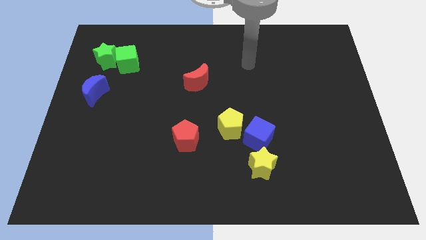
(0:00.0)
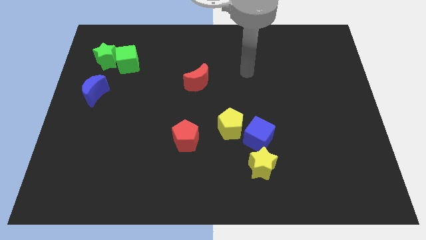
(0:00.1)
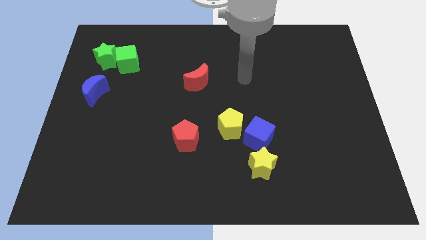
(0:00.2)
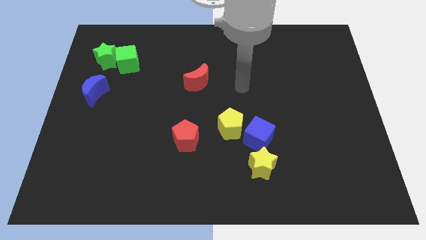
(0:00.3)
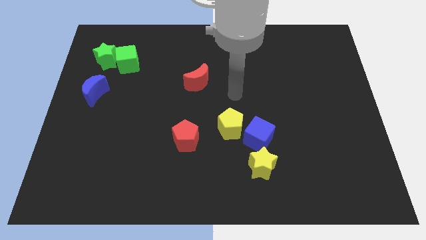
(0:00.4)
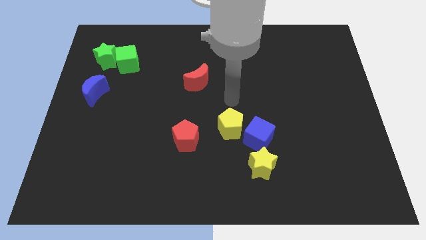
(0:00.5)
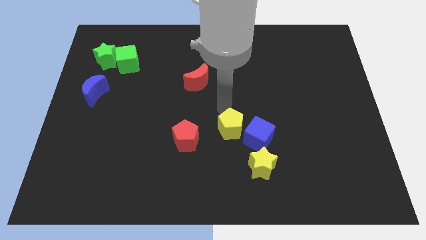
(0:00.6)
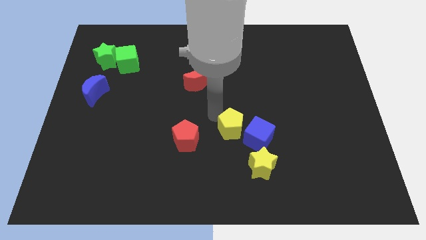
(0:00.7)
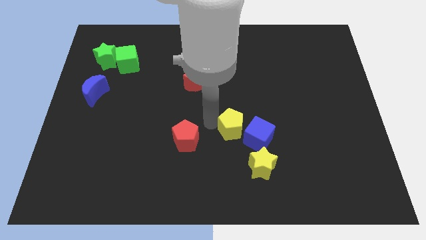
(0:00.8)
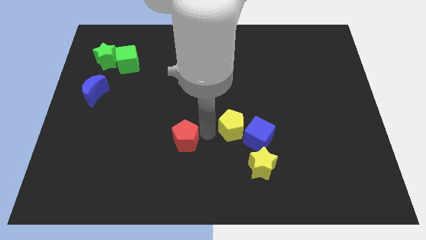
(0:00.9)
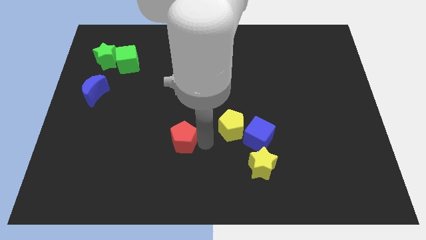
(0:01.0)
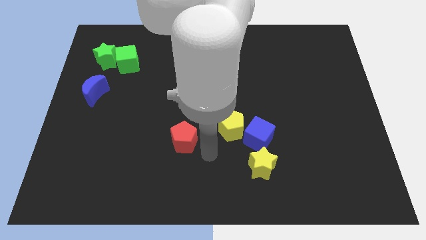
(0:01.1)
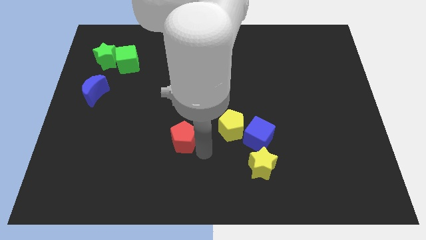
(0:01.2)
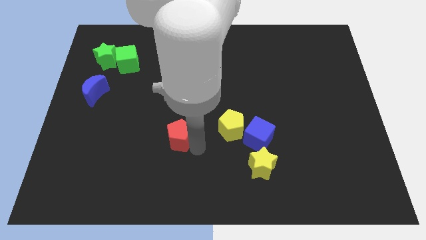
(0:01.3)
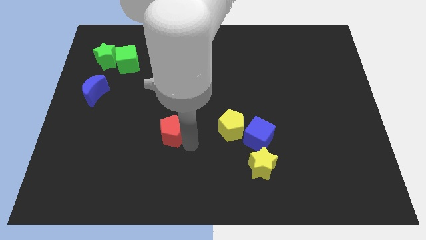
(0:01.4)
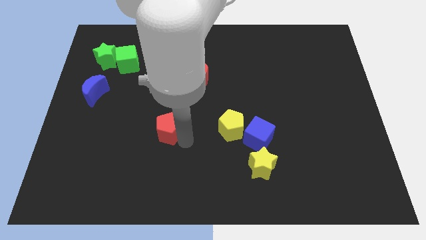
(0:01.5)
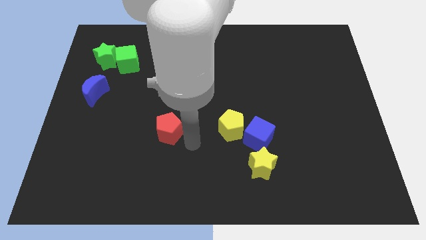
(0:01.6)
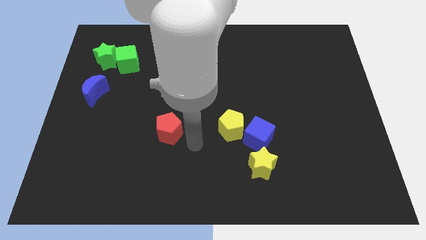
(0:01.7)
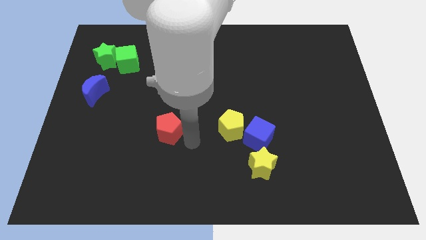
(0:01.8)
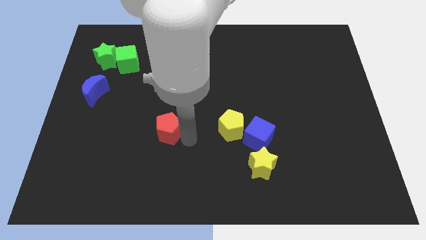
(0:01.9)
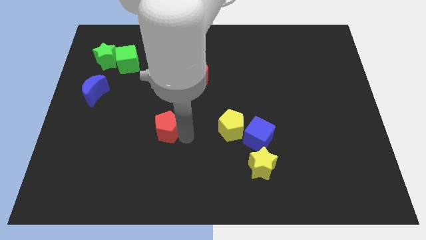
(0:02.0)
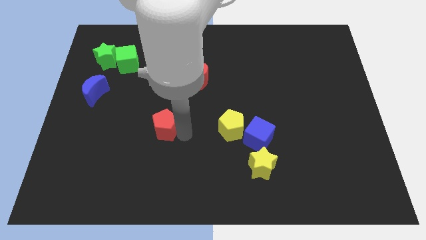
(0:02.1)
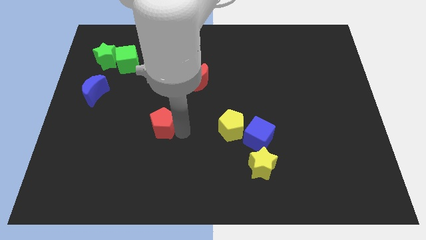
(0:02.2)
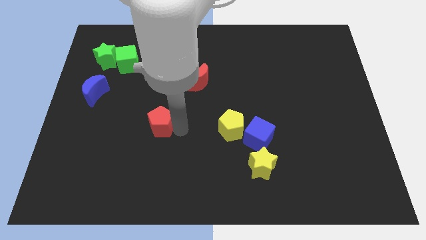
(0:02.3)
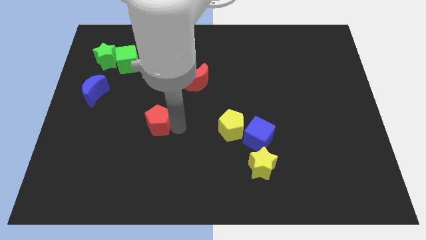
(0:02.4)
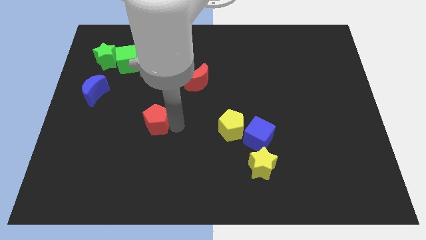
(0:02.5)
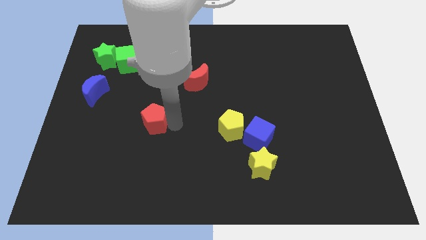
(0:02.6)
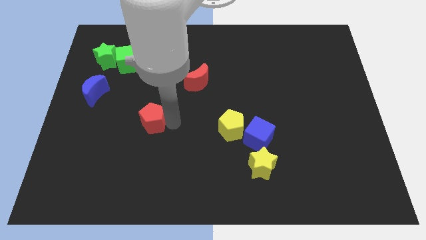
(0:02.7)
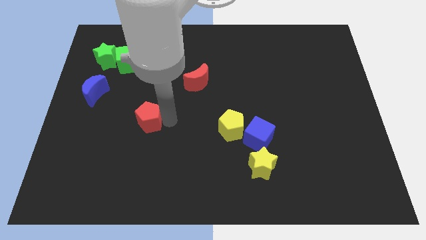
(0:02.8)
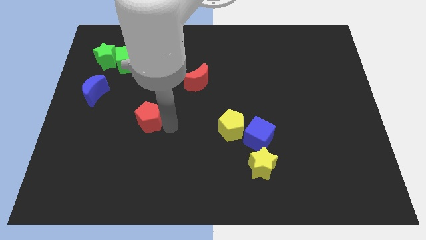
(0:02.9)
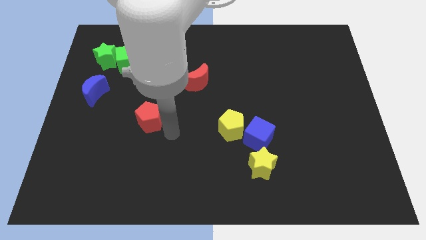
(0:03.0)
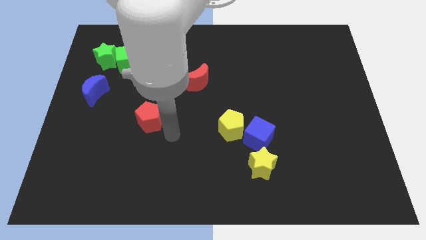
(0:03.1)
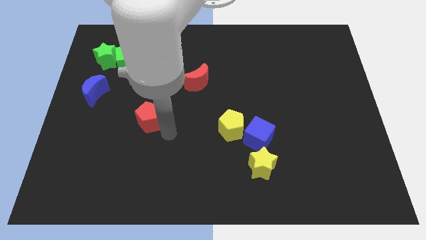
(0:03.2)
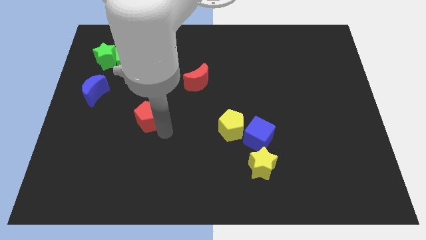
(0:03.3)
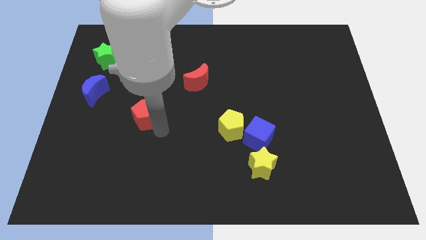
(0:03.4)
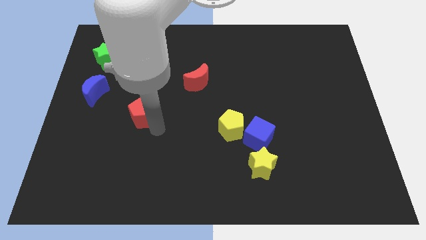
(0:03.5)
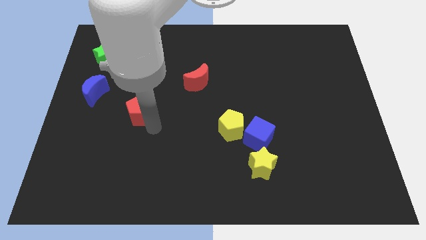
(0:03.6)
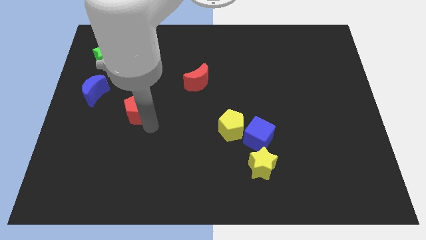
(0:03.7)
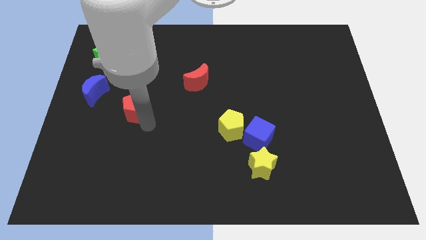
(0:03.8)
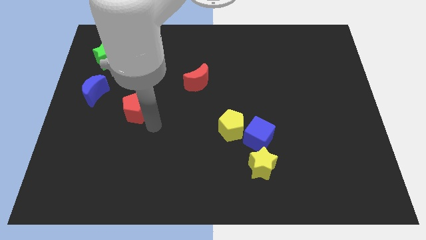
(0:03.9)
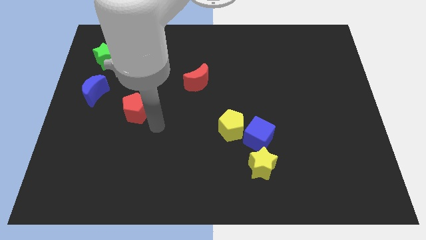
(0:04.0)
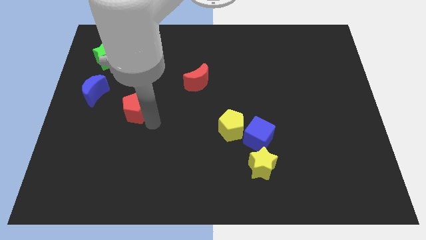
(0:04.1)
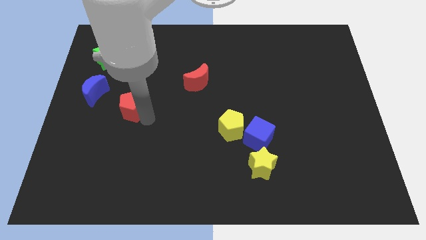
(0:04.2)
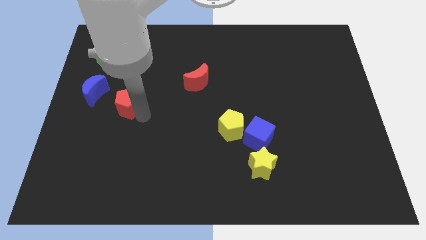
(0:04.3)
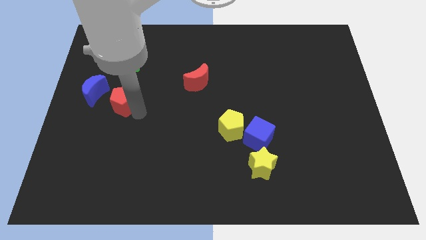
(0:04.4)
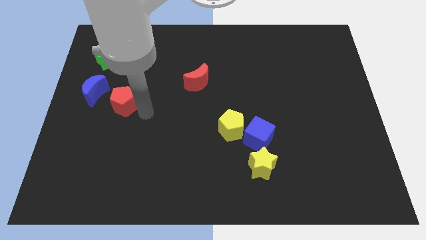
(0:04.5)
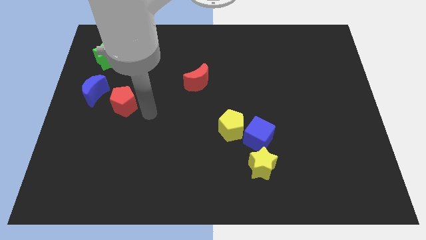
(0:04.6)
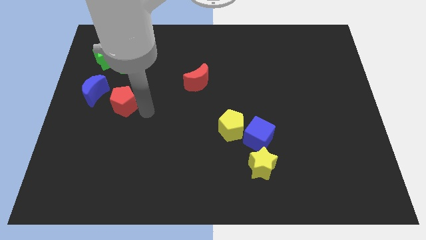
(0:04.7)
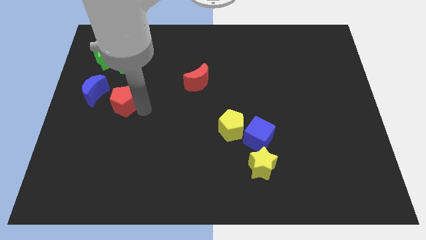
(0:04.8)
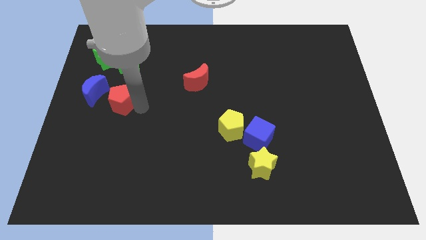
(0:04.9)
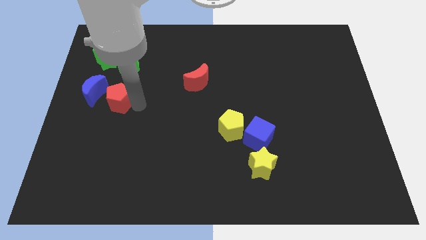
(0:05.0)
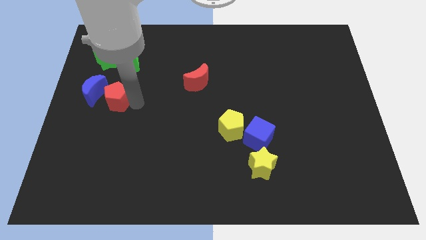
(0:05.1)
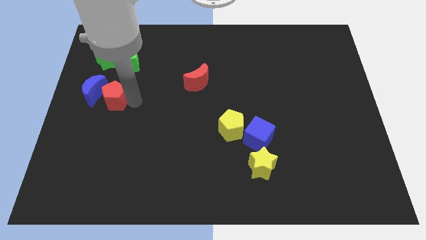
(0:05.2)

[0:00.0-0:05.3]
push the red pentagon close to the blue moon

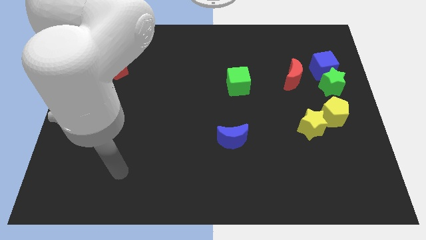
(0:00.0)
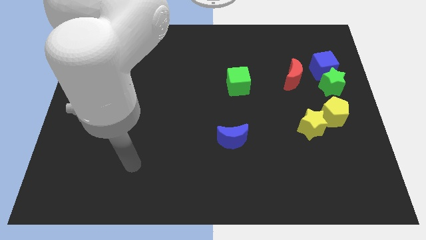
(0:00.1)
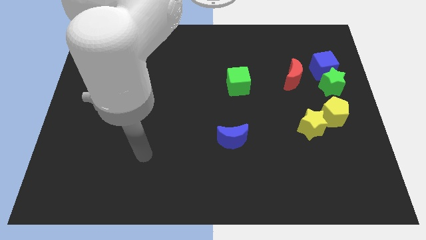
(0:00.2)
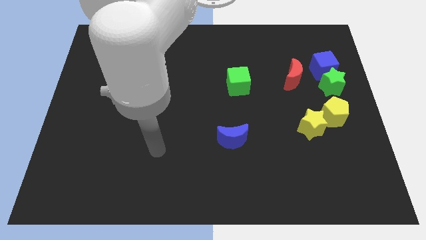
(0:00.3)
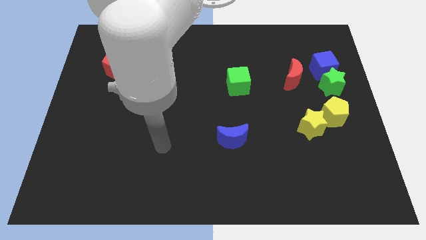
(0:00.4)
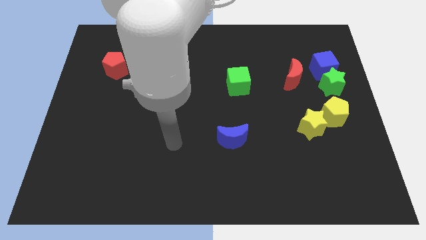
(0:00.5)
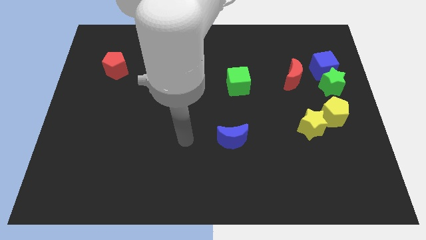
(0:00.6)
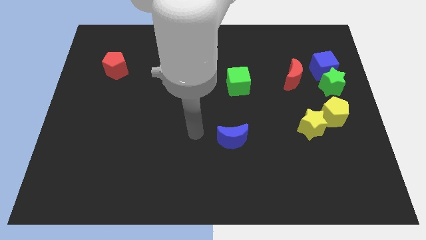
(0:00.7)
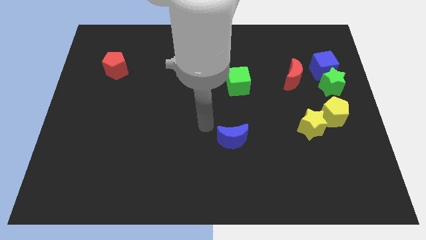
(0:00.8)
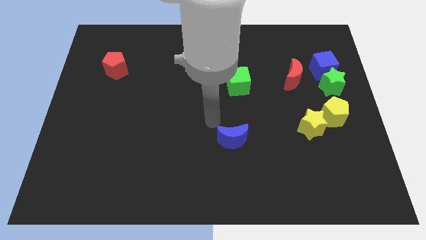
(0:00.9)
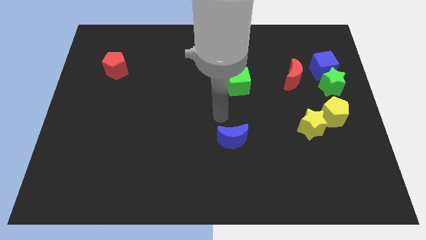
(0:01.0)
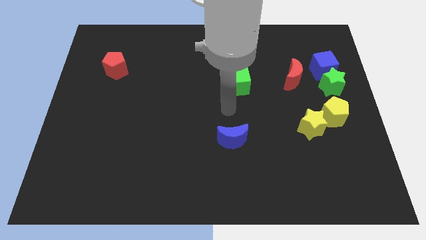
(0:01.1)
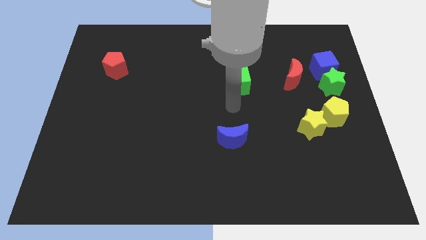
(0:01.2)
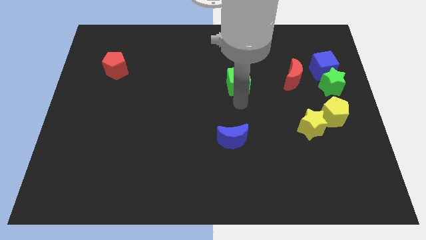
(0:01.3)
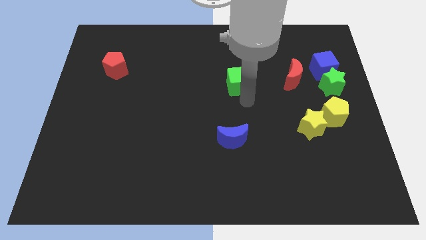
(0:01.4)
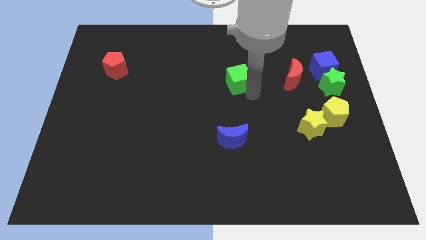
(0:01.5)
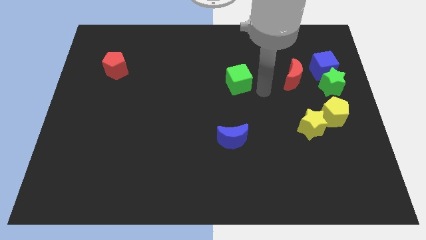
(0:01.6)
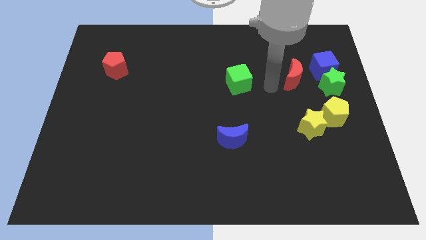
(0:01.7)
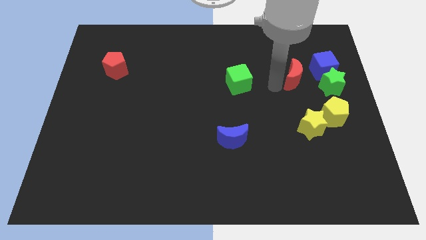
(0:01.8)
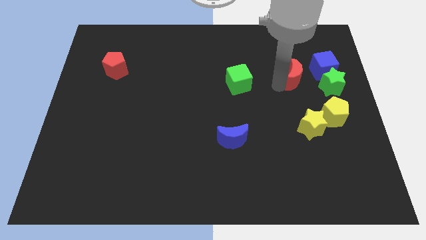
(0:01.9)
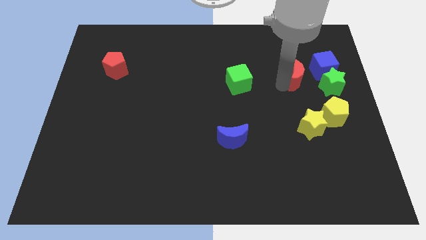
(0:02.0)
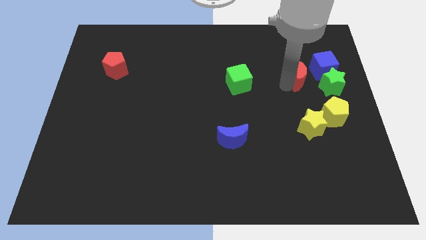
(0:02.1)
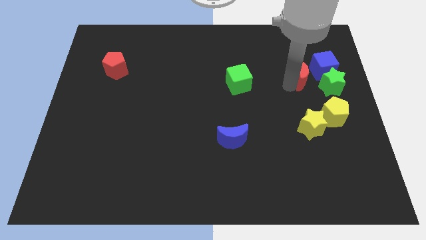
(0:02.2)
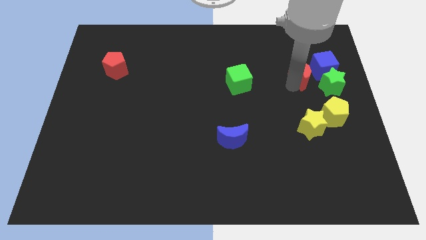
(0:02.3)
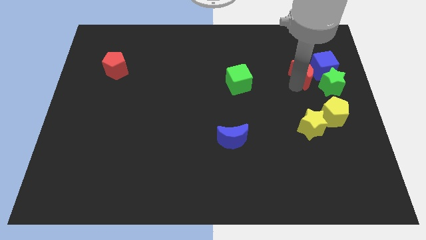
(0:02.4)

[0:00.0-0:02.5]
move the red moon next to the blue cube
